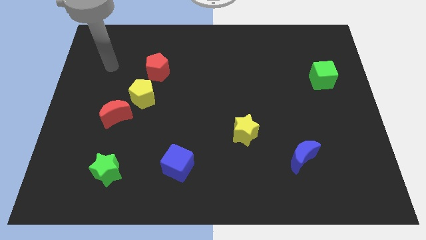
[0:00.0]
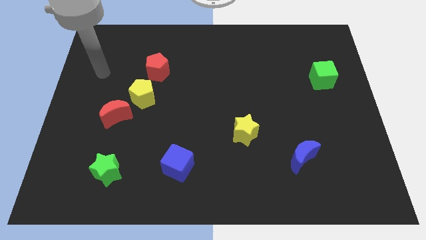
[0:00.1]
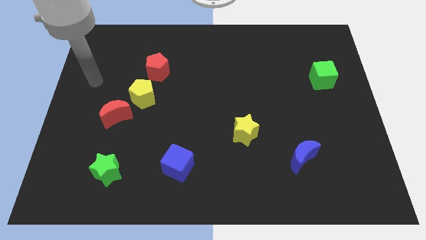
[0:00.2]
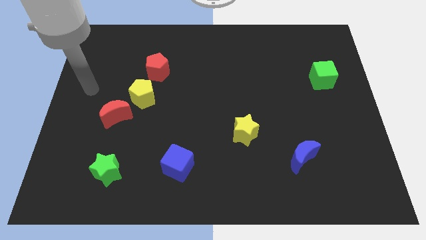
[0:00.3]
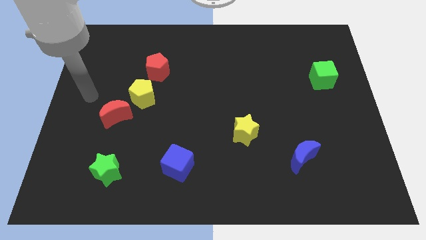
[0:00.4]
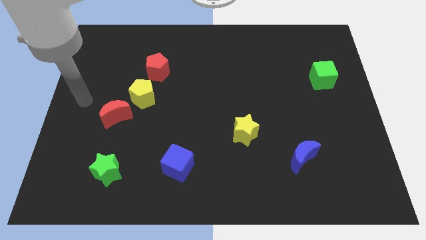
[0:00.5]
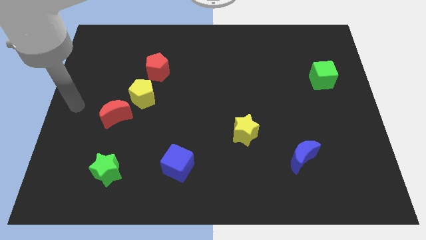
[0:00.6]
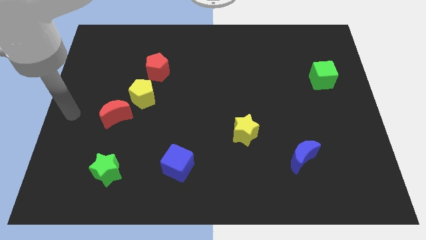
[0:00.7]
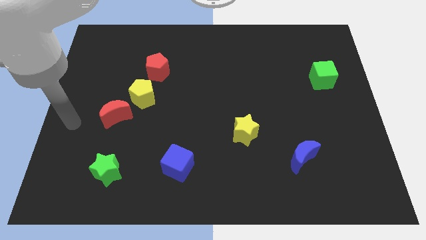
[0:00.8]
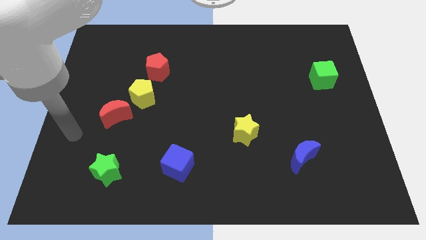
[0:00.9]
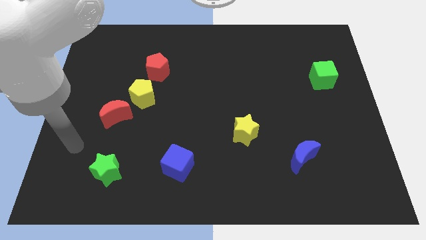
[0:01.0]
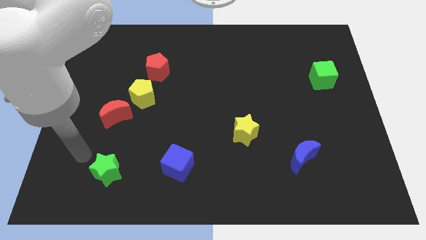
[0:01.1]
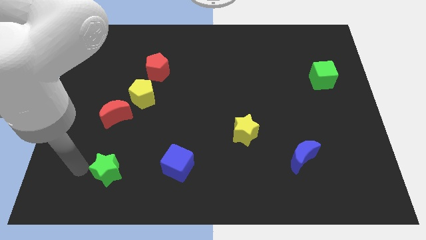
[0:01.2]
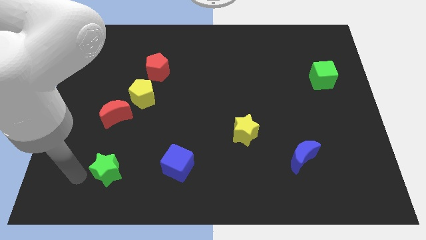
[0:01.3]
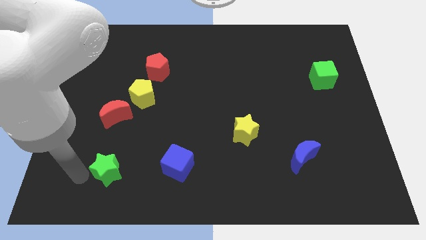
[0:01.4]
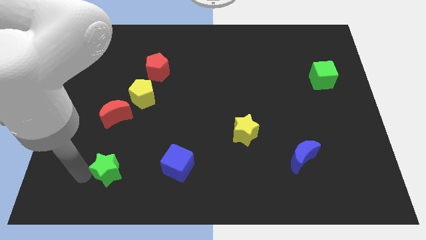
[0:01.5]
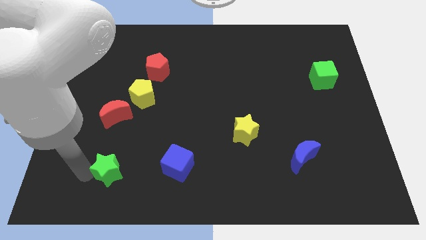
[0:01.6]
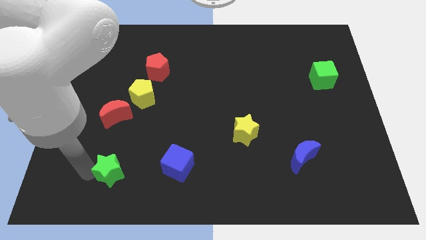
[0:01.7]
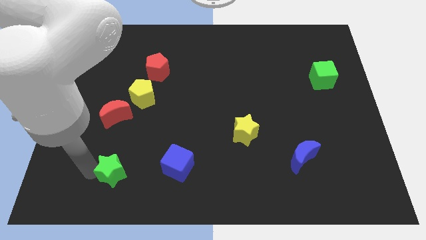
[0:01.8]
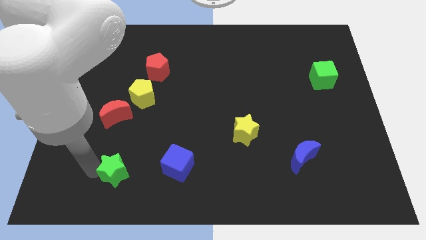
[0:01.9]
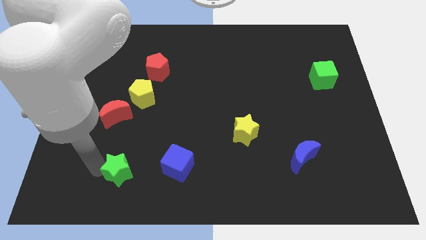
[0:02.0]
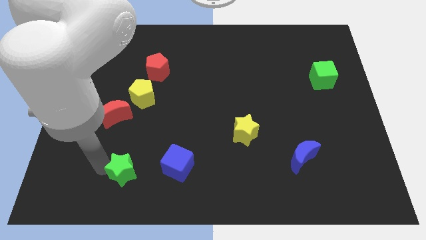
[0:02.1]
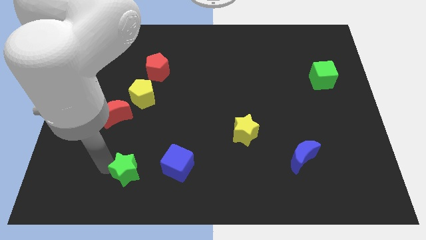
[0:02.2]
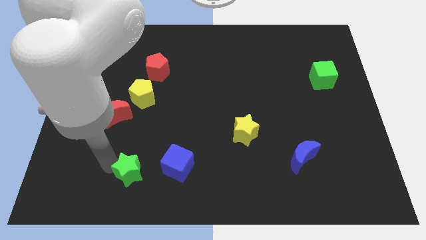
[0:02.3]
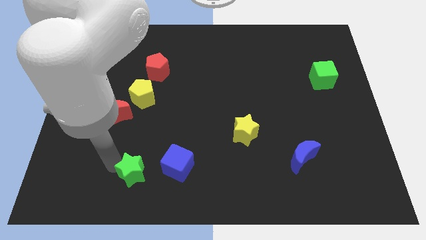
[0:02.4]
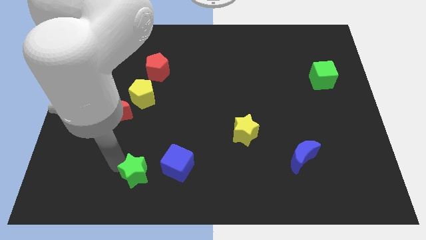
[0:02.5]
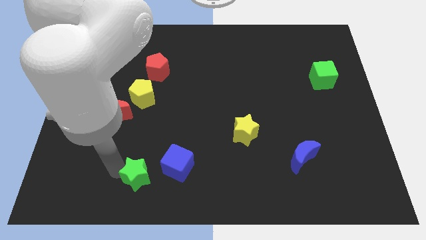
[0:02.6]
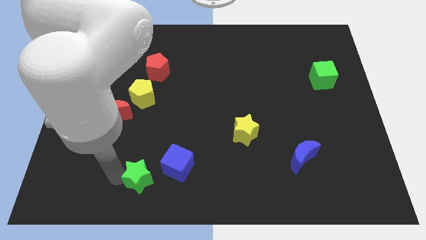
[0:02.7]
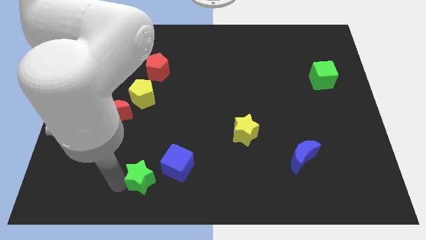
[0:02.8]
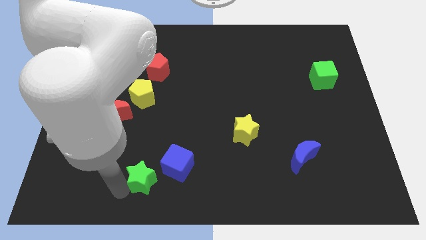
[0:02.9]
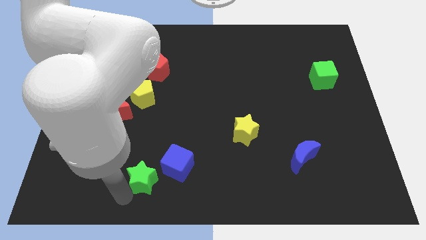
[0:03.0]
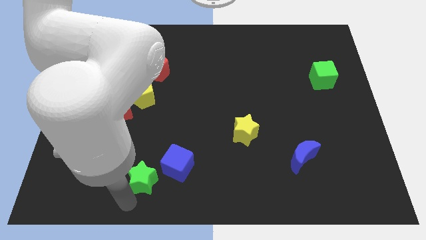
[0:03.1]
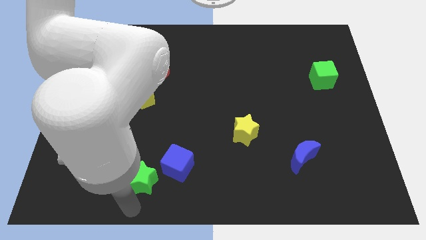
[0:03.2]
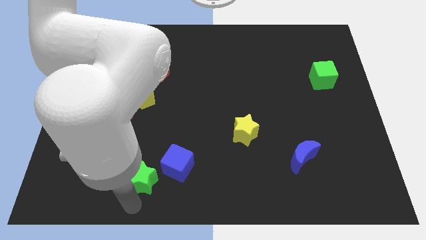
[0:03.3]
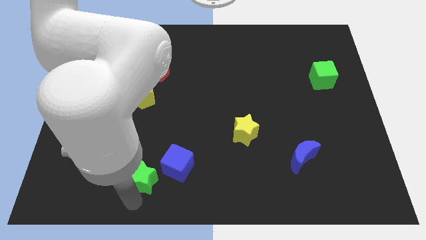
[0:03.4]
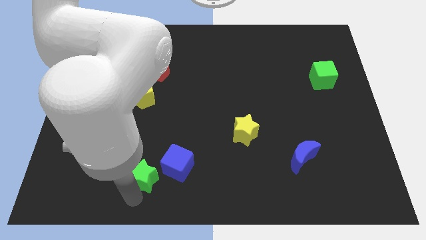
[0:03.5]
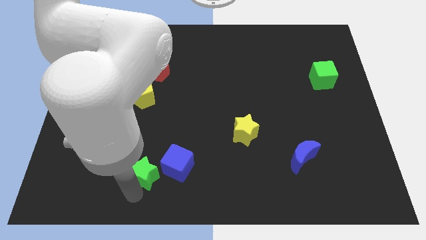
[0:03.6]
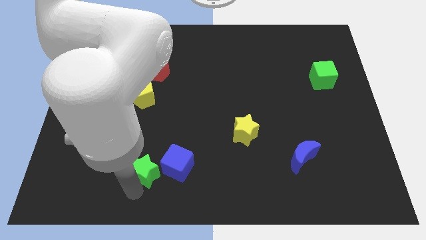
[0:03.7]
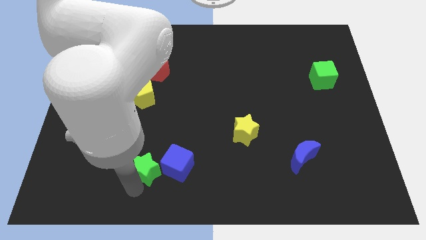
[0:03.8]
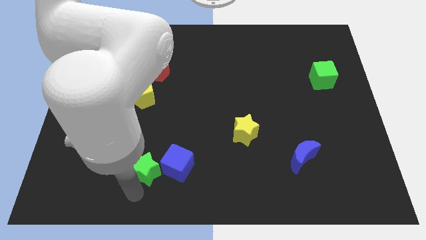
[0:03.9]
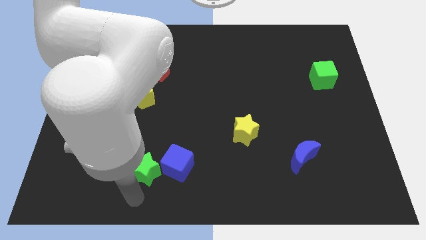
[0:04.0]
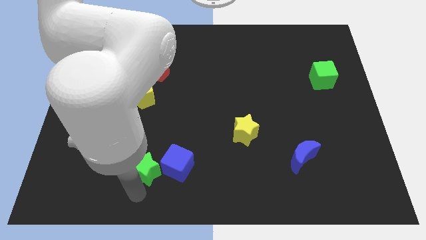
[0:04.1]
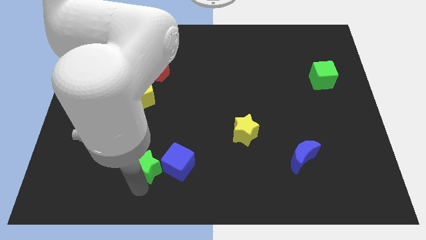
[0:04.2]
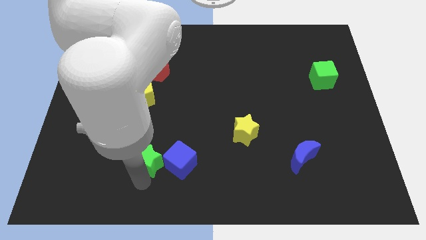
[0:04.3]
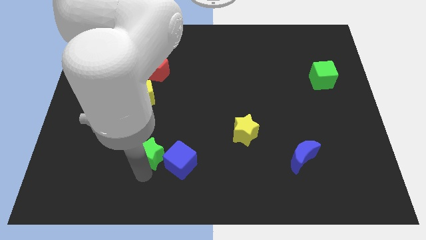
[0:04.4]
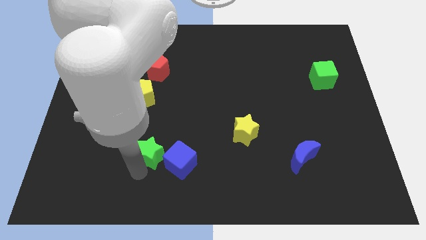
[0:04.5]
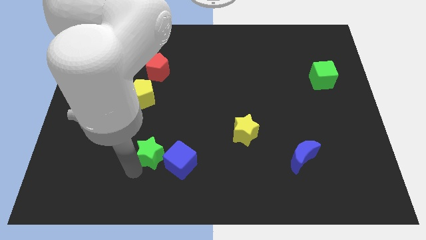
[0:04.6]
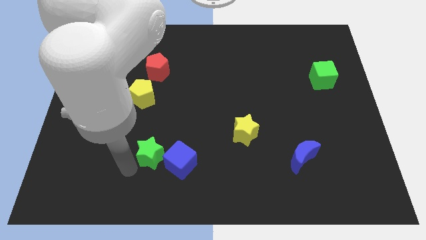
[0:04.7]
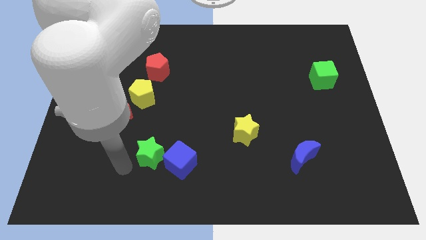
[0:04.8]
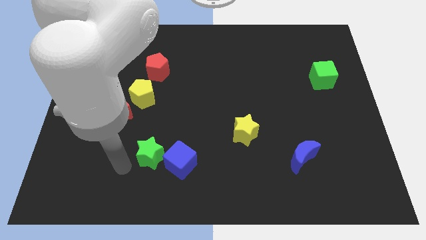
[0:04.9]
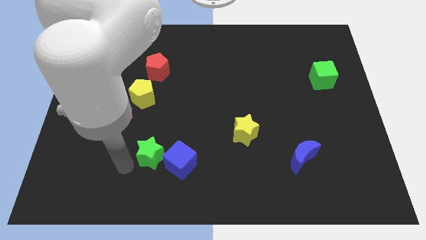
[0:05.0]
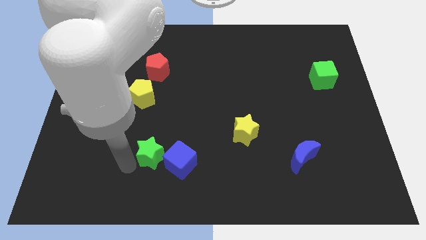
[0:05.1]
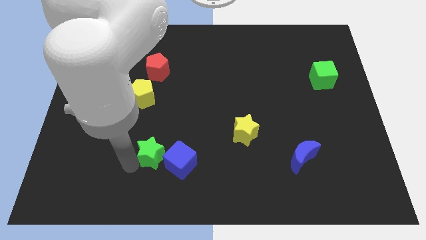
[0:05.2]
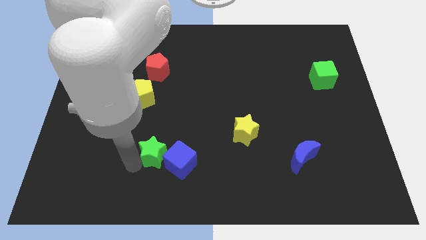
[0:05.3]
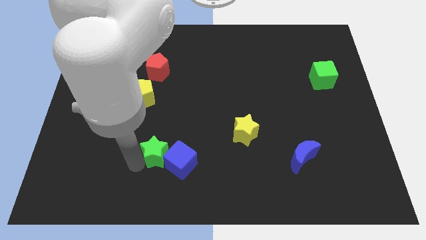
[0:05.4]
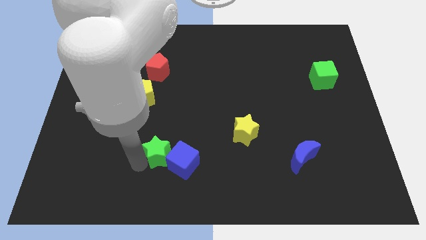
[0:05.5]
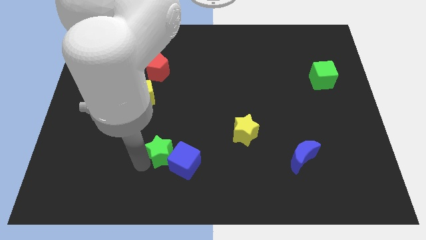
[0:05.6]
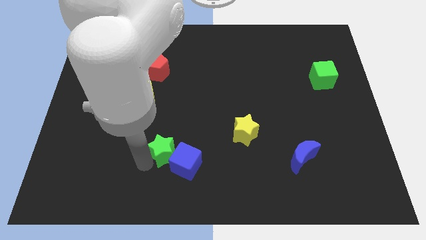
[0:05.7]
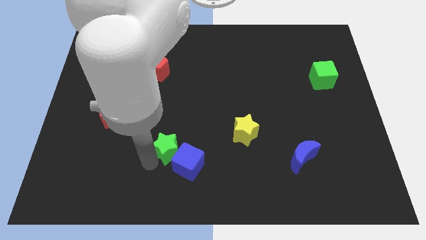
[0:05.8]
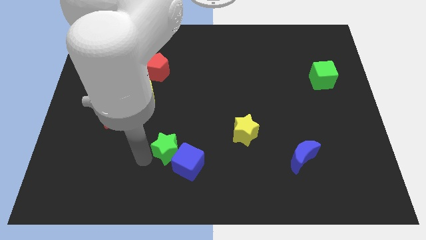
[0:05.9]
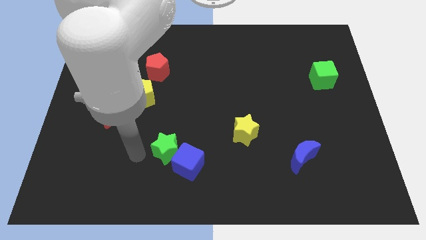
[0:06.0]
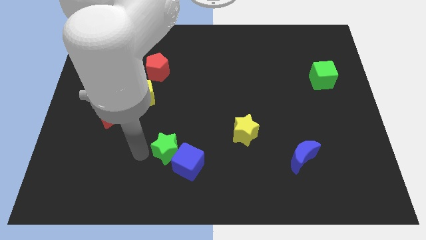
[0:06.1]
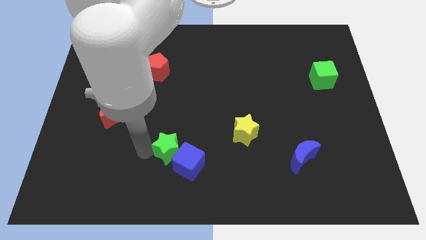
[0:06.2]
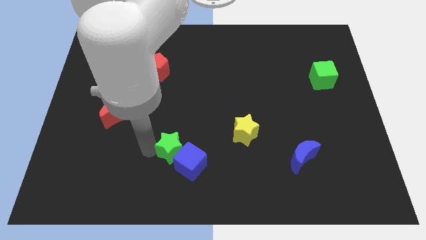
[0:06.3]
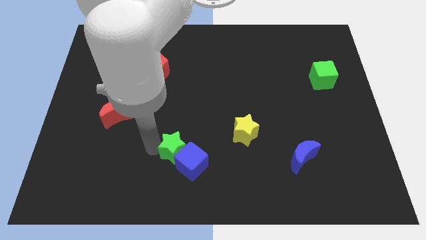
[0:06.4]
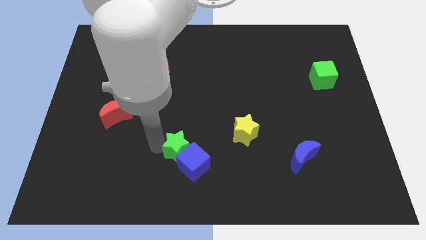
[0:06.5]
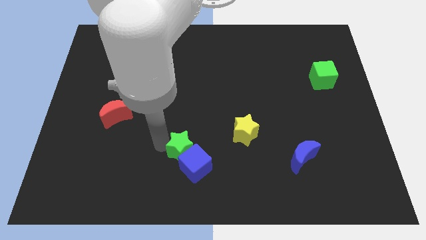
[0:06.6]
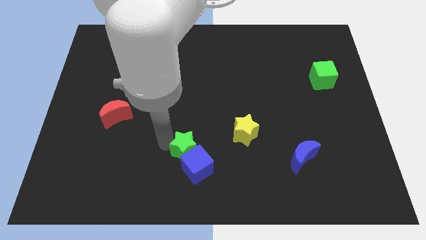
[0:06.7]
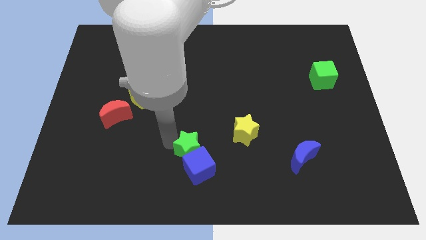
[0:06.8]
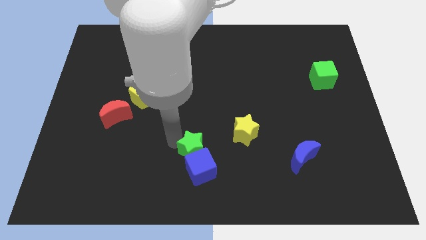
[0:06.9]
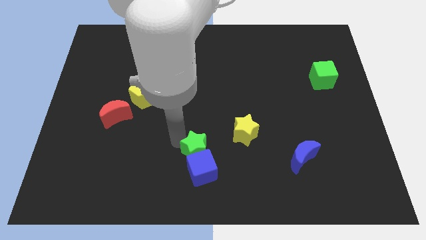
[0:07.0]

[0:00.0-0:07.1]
slide the green star to the top right of the blue cube

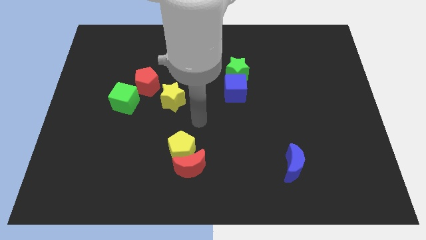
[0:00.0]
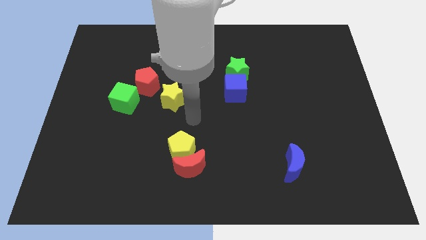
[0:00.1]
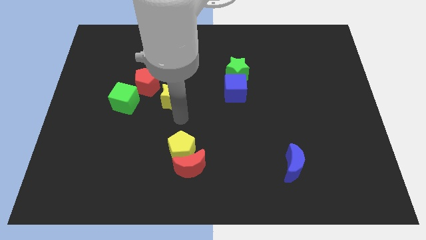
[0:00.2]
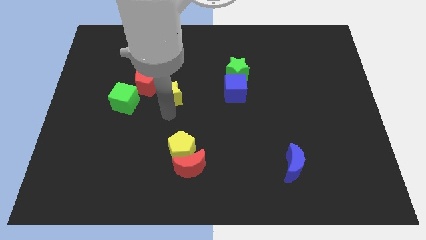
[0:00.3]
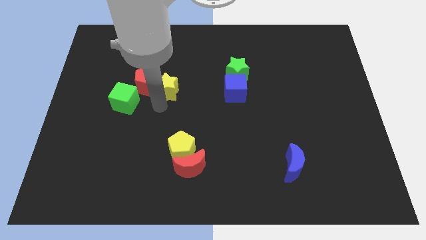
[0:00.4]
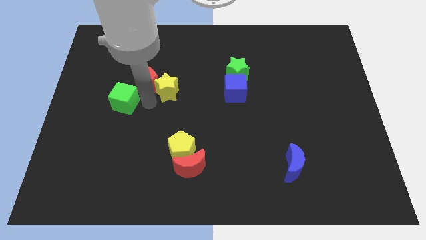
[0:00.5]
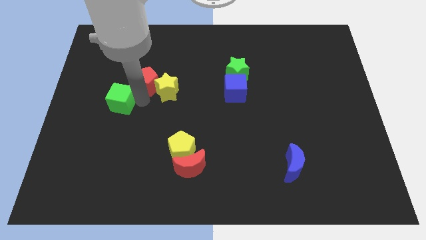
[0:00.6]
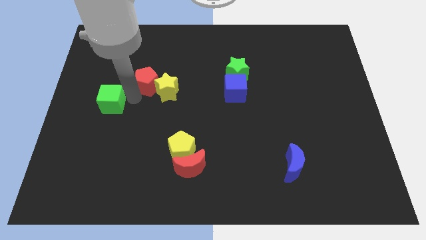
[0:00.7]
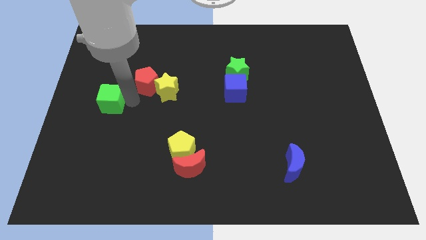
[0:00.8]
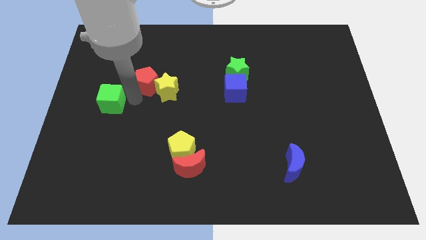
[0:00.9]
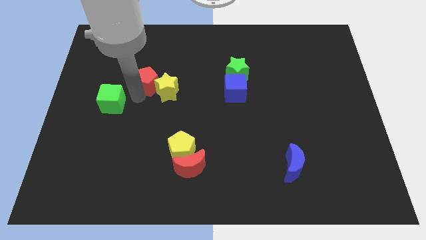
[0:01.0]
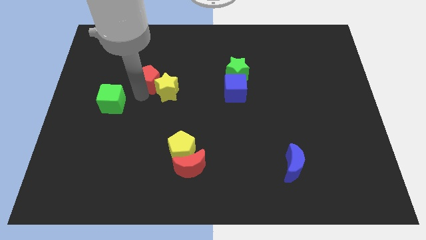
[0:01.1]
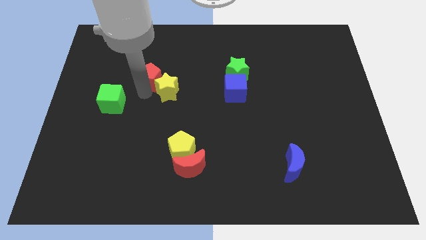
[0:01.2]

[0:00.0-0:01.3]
slide the red pentagon above the yellow star
